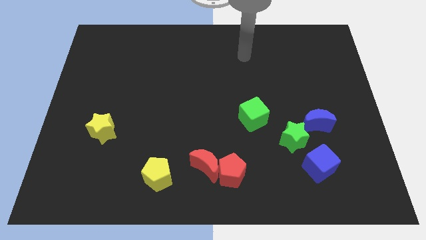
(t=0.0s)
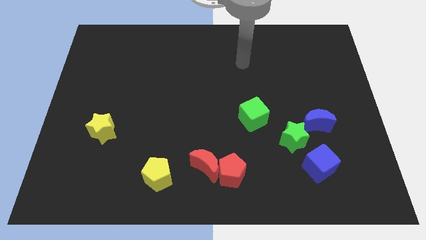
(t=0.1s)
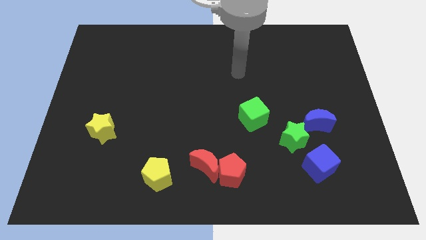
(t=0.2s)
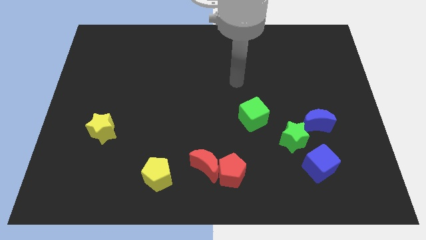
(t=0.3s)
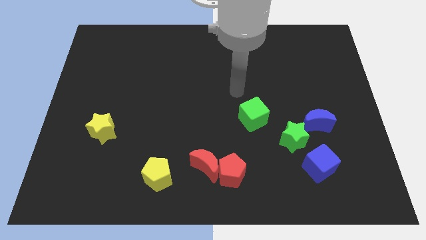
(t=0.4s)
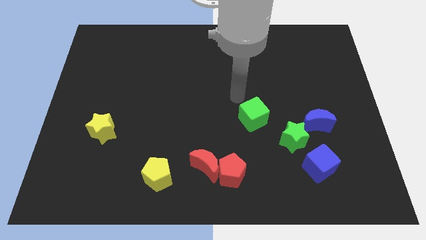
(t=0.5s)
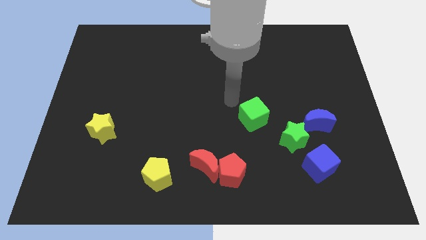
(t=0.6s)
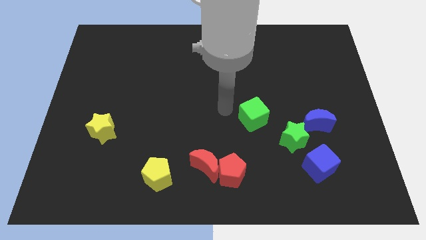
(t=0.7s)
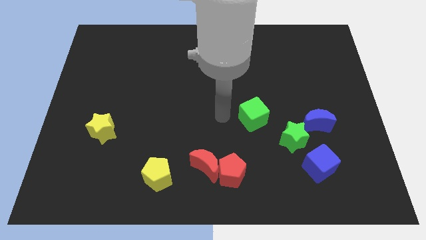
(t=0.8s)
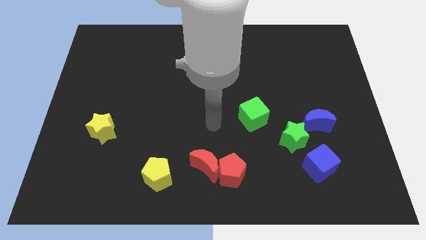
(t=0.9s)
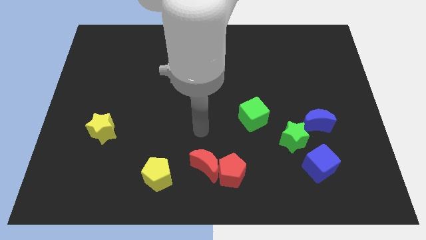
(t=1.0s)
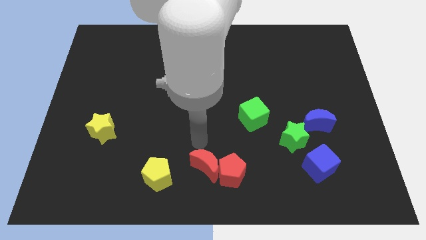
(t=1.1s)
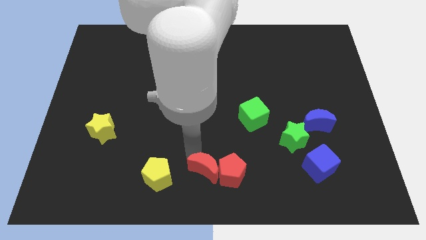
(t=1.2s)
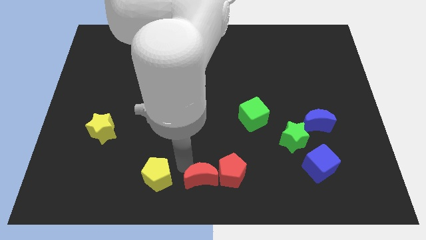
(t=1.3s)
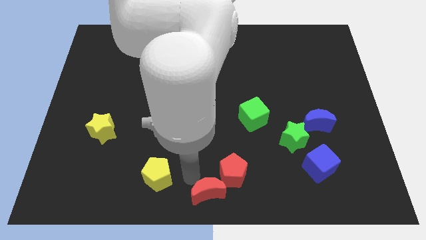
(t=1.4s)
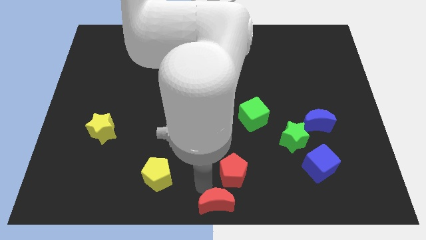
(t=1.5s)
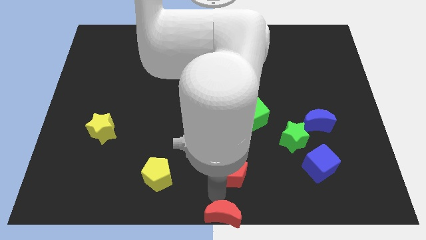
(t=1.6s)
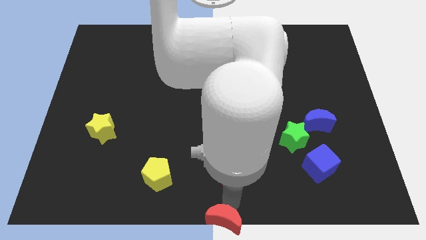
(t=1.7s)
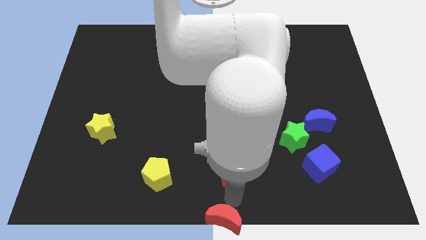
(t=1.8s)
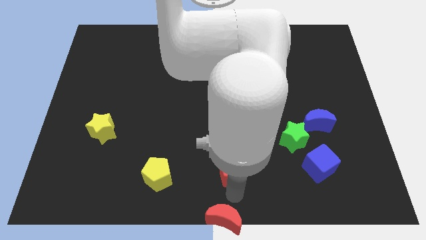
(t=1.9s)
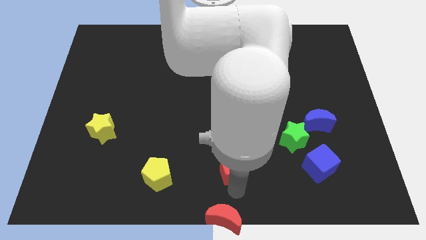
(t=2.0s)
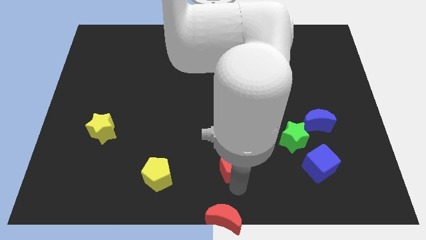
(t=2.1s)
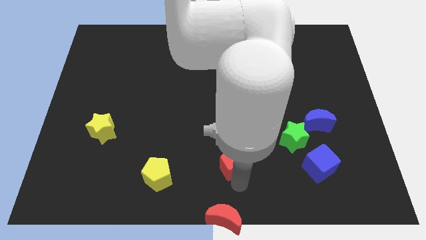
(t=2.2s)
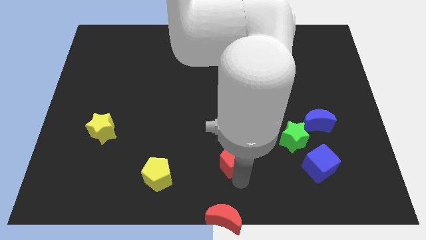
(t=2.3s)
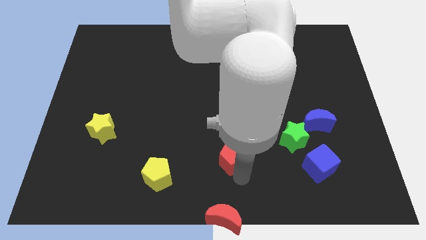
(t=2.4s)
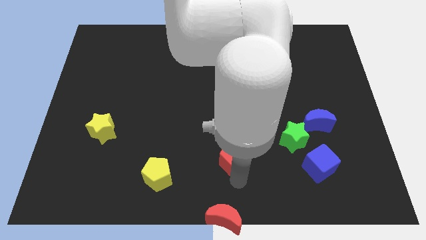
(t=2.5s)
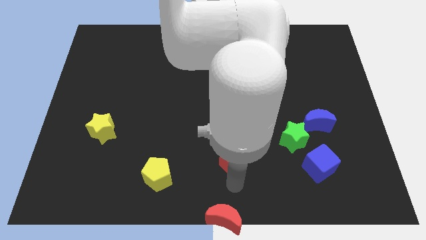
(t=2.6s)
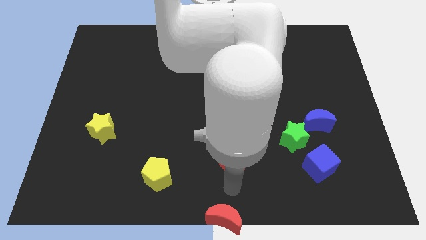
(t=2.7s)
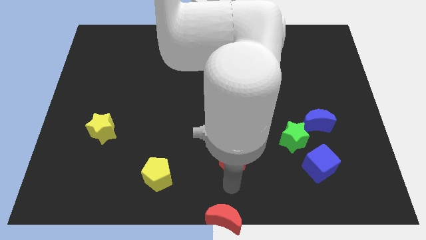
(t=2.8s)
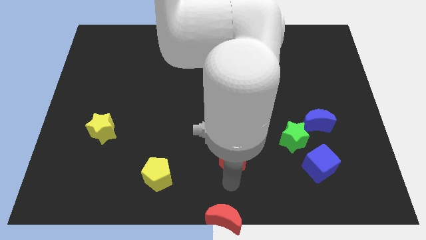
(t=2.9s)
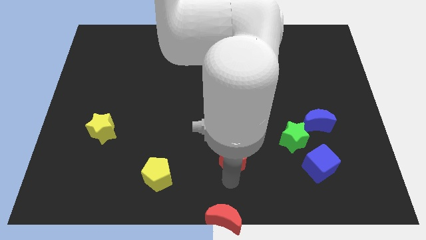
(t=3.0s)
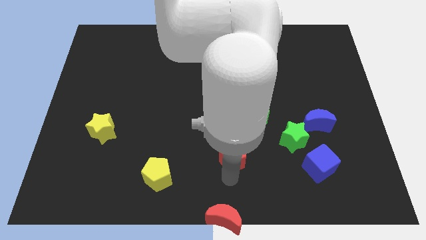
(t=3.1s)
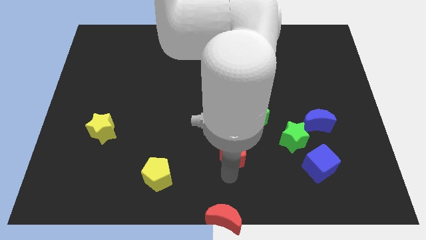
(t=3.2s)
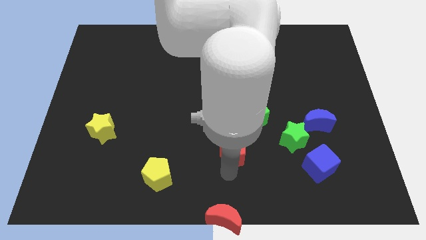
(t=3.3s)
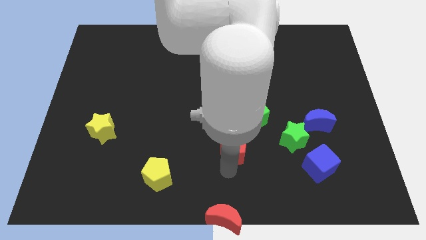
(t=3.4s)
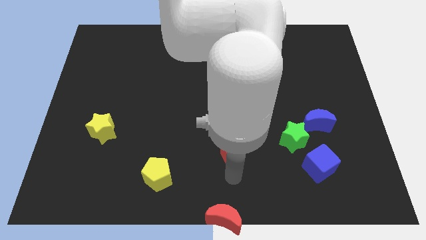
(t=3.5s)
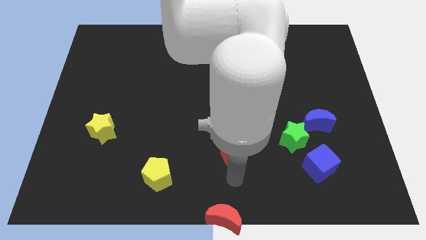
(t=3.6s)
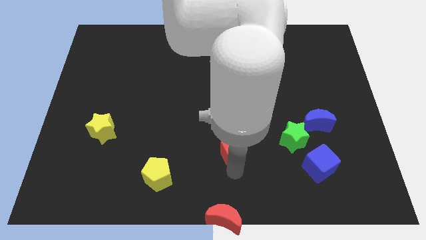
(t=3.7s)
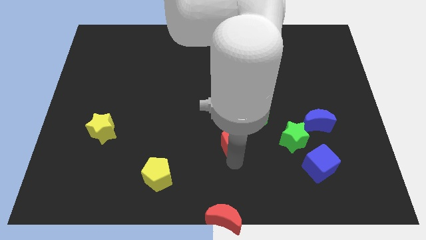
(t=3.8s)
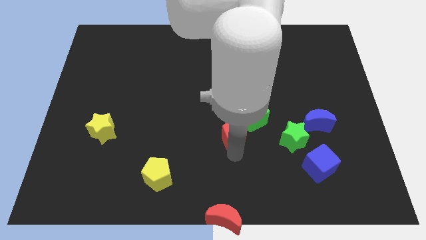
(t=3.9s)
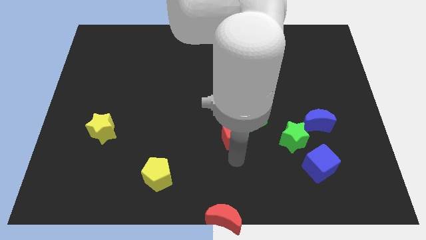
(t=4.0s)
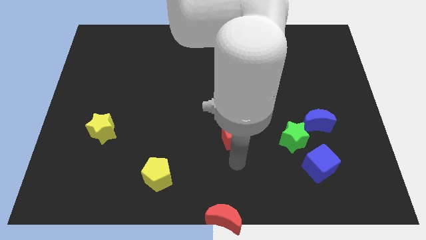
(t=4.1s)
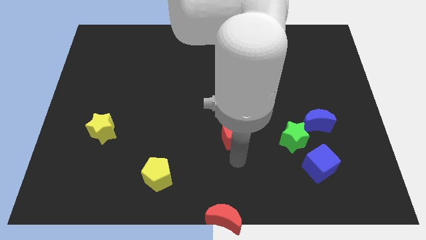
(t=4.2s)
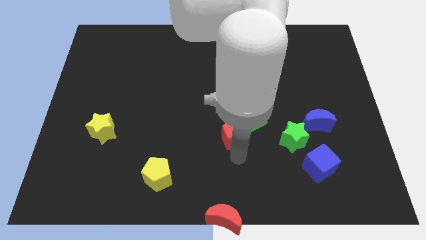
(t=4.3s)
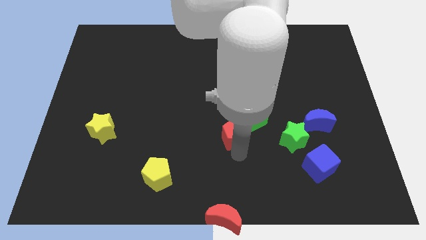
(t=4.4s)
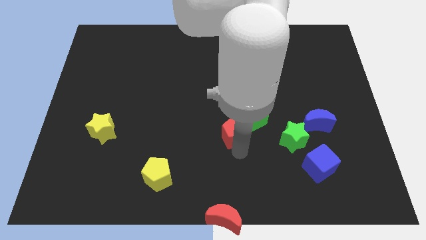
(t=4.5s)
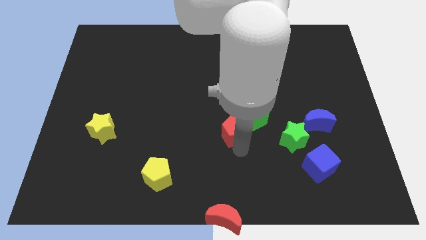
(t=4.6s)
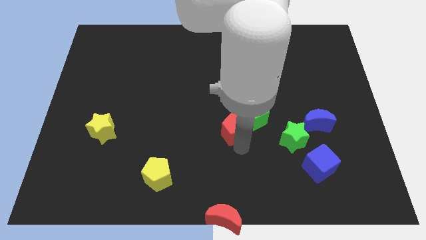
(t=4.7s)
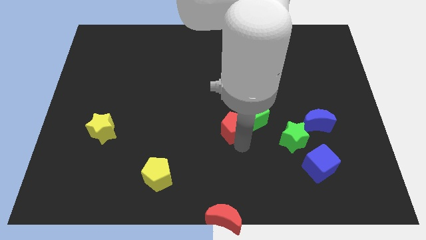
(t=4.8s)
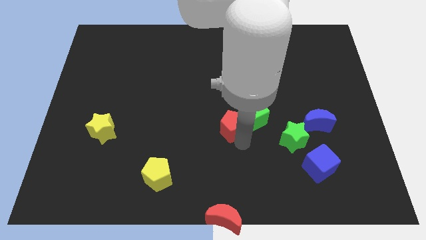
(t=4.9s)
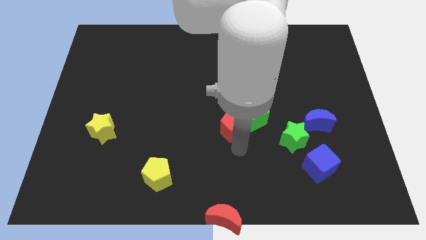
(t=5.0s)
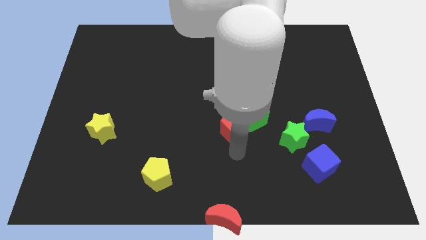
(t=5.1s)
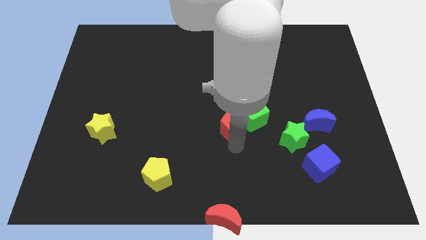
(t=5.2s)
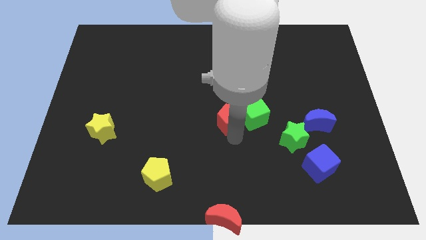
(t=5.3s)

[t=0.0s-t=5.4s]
slide the red pentagon to the top left of the green cube

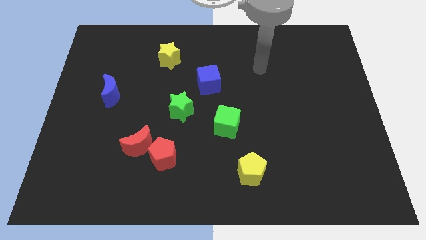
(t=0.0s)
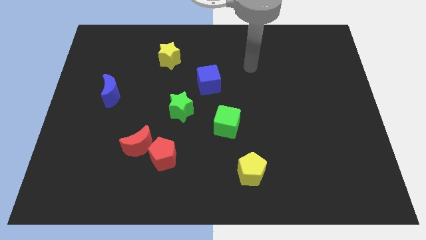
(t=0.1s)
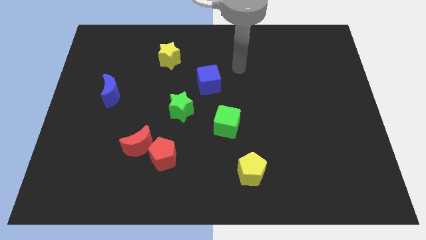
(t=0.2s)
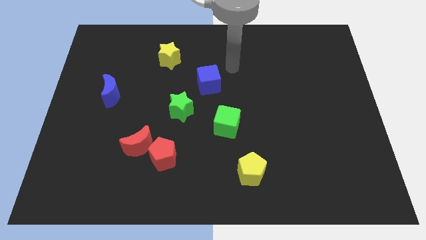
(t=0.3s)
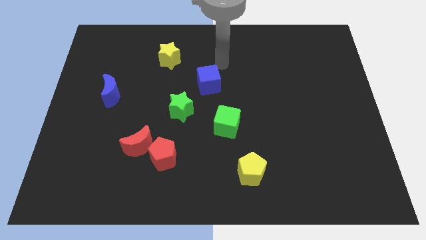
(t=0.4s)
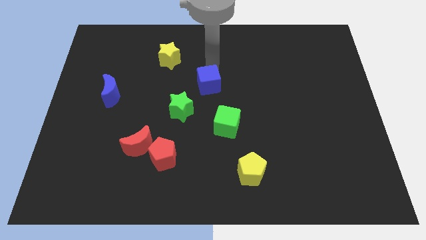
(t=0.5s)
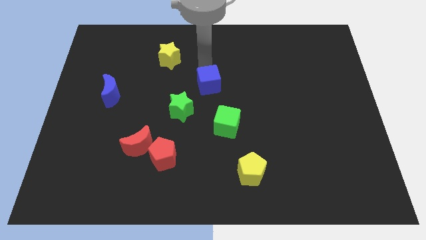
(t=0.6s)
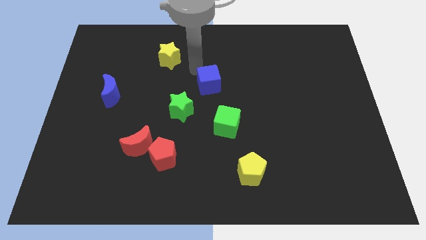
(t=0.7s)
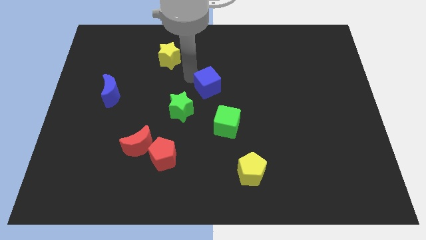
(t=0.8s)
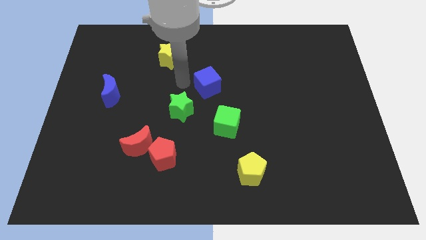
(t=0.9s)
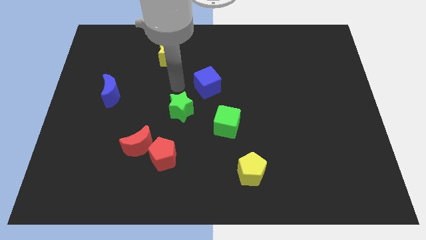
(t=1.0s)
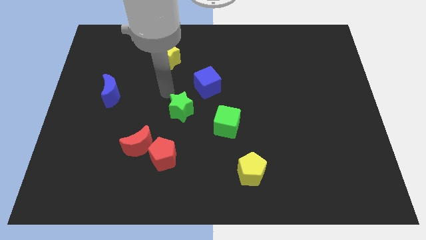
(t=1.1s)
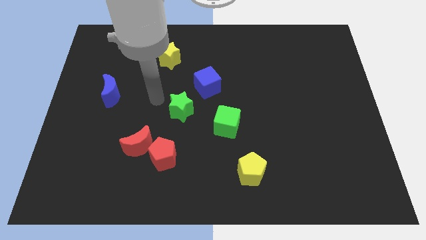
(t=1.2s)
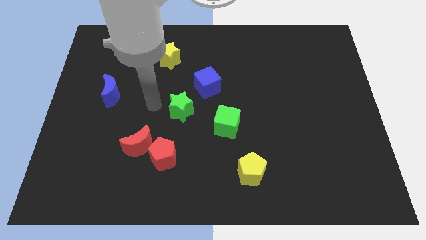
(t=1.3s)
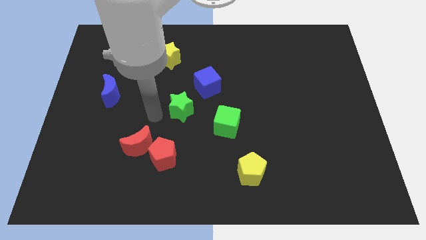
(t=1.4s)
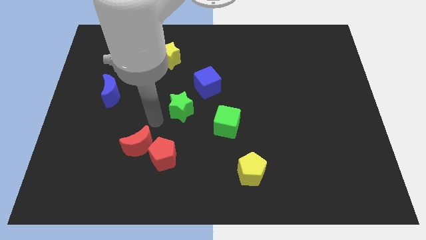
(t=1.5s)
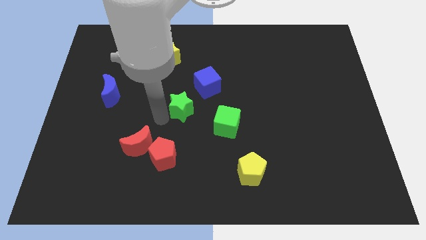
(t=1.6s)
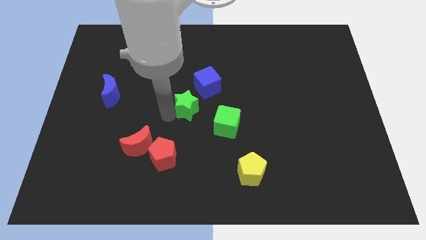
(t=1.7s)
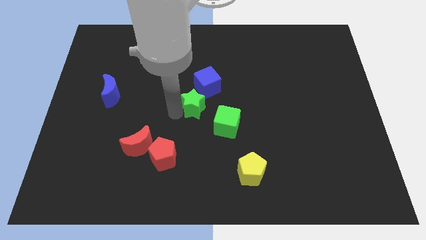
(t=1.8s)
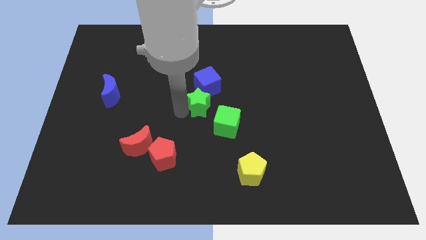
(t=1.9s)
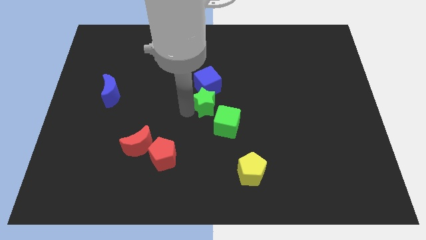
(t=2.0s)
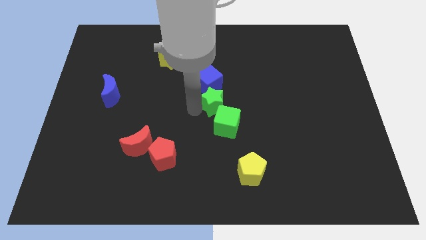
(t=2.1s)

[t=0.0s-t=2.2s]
move the green star to the top of the green cube
